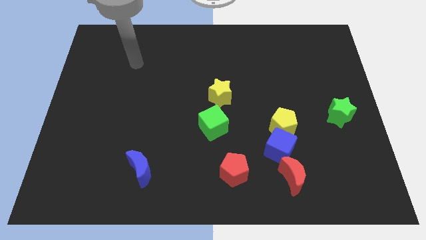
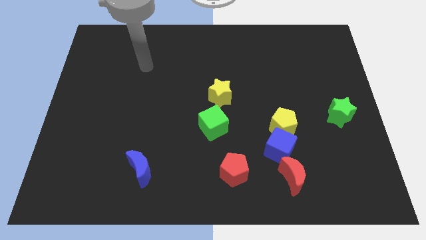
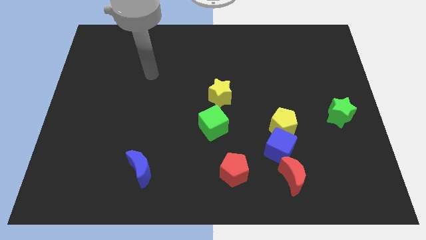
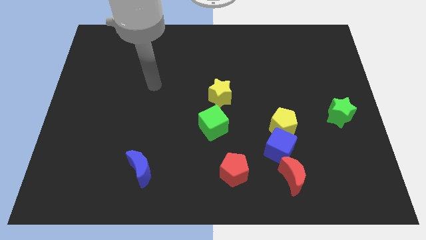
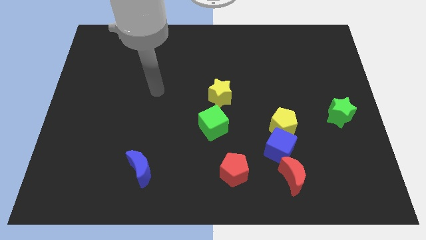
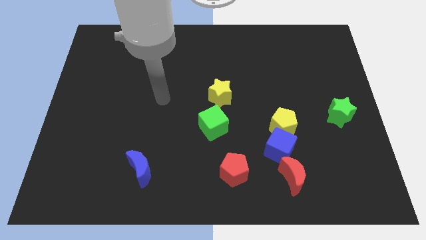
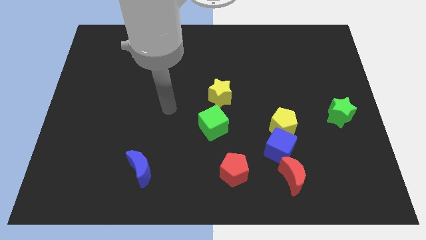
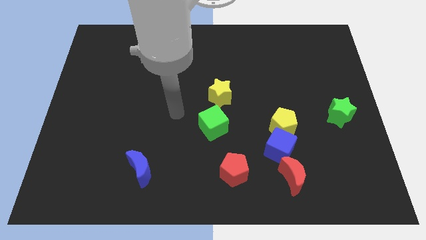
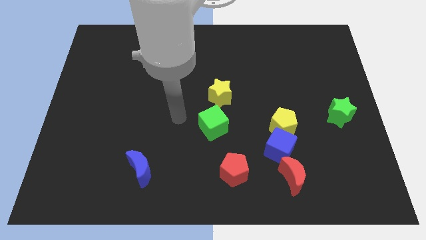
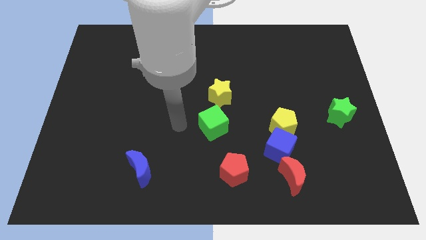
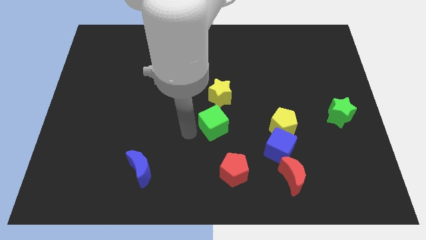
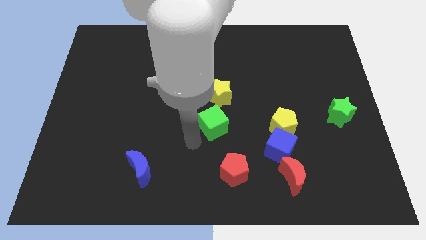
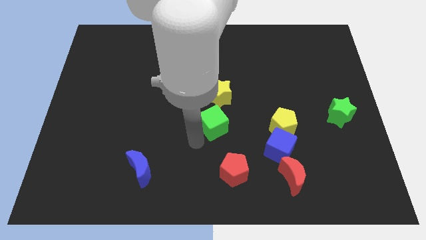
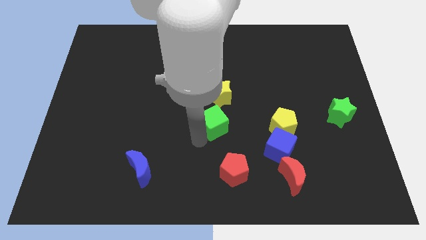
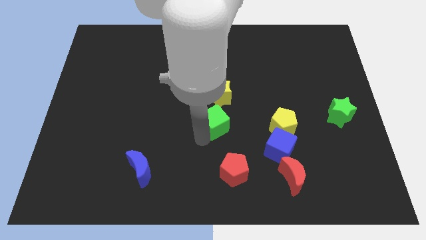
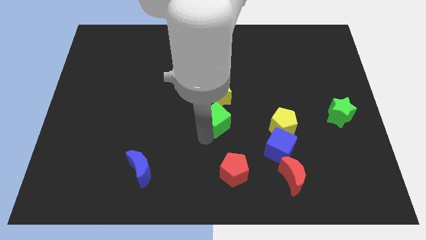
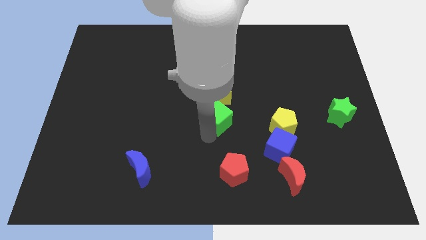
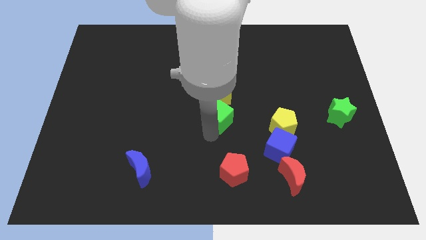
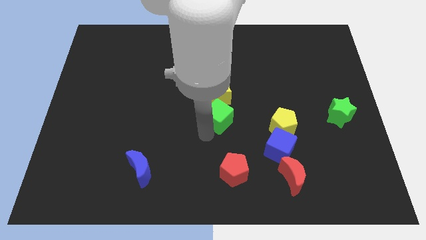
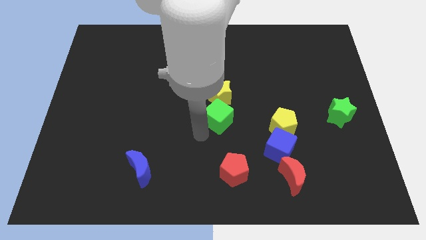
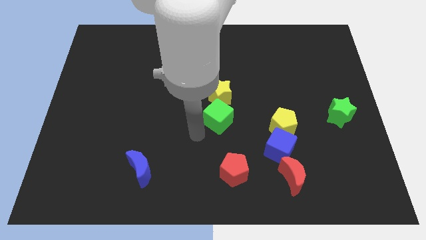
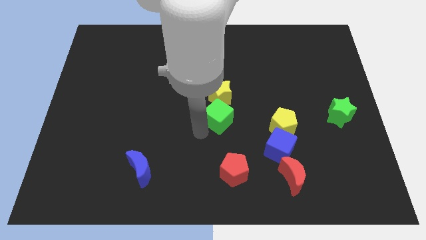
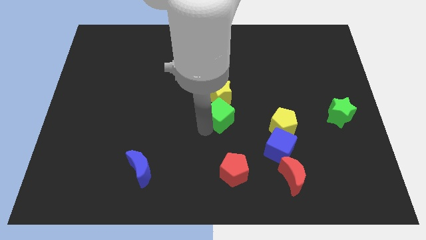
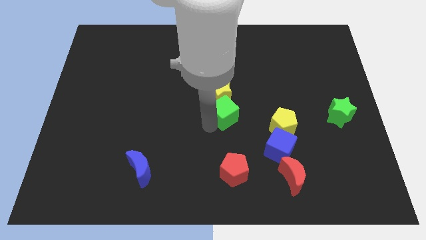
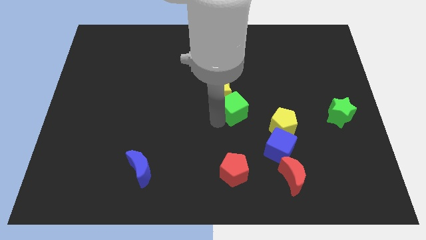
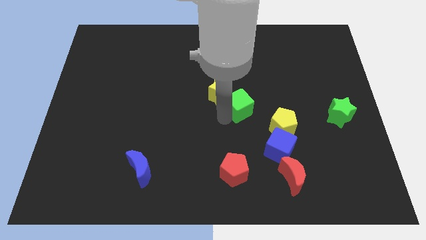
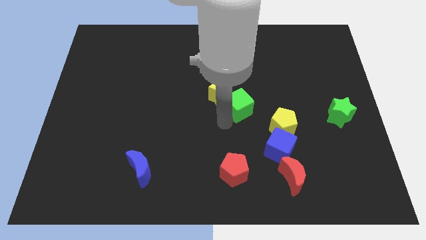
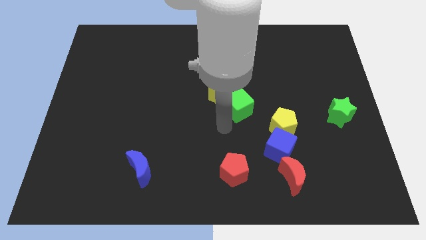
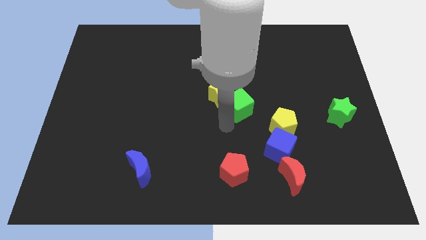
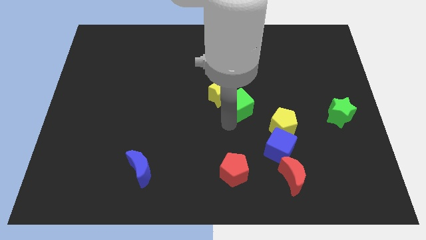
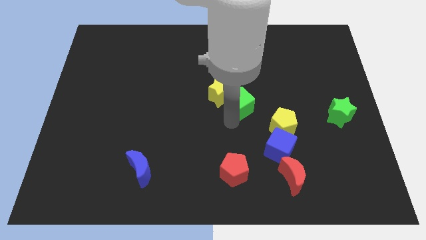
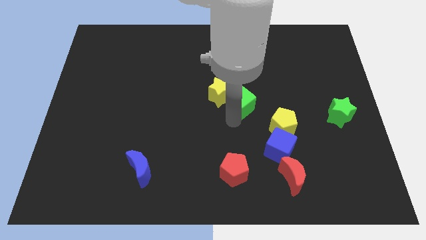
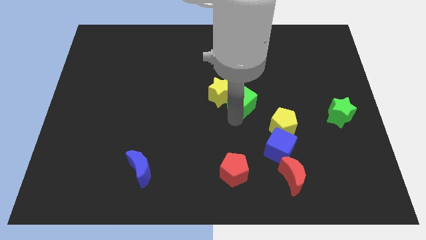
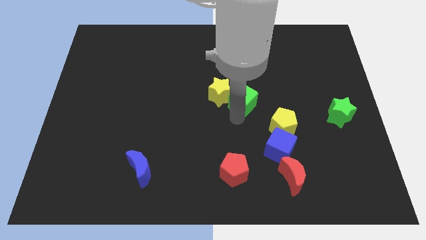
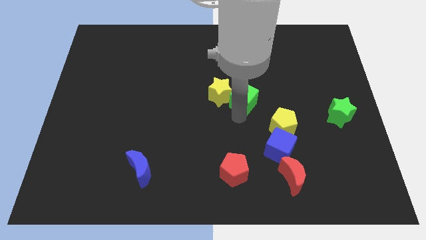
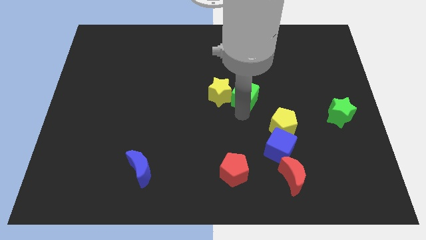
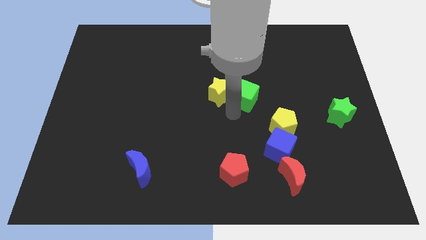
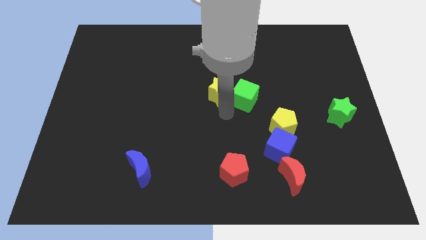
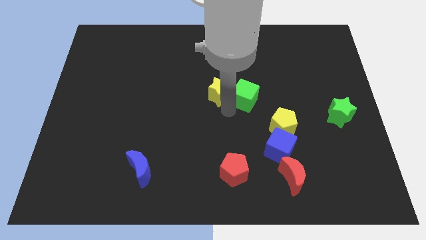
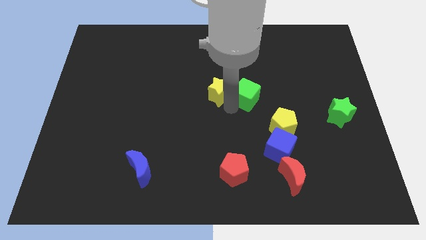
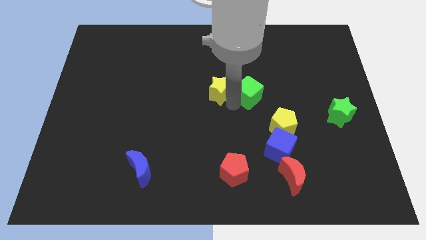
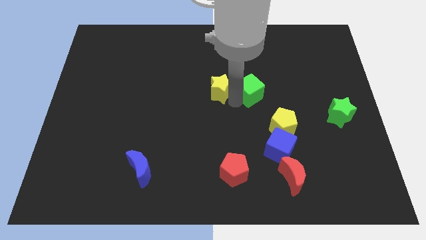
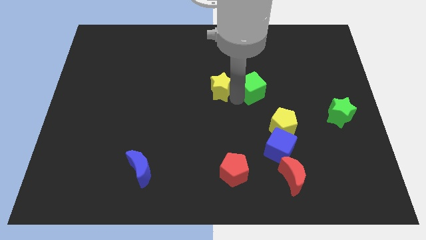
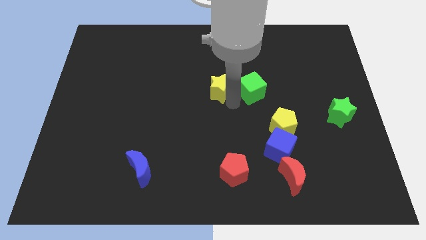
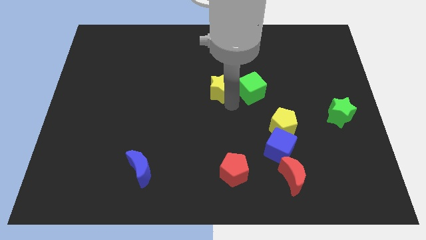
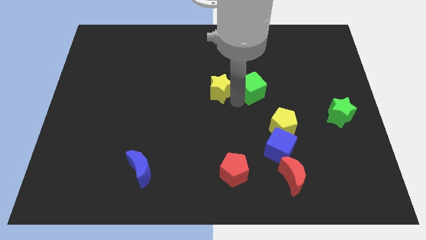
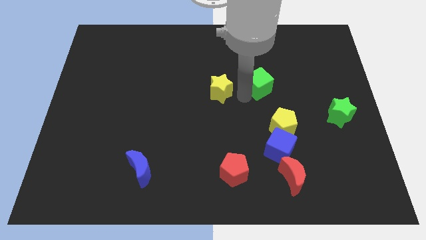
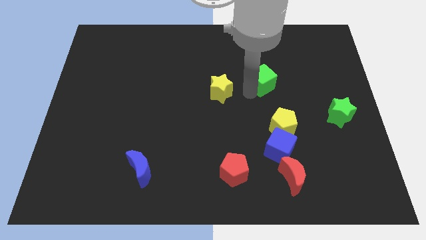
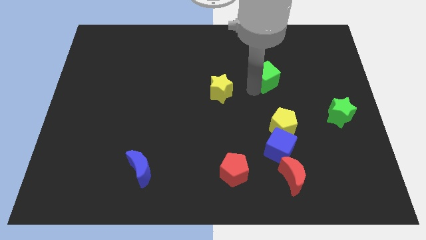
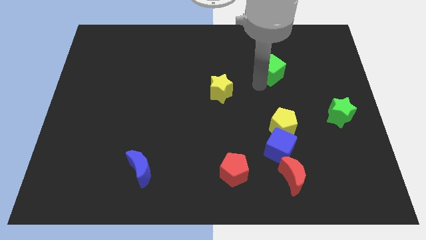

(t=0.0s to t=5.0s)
move the green cube upwards and then to the right

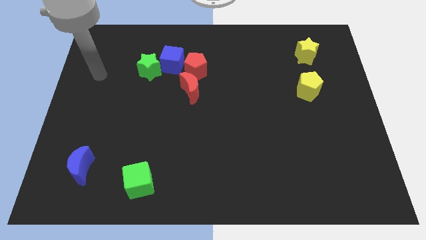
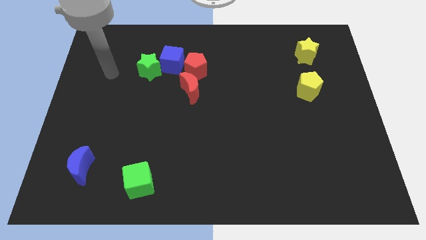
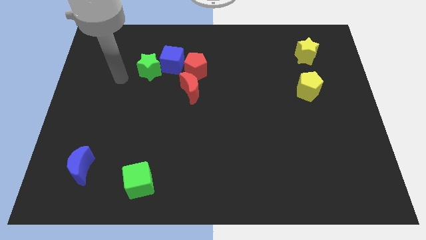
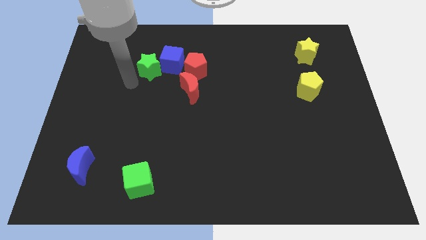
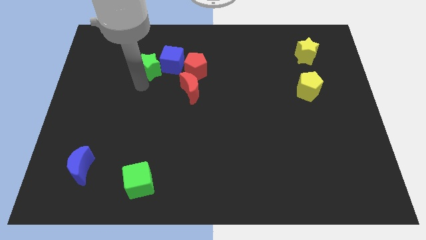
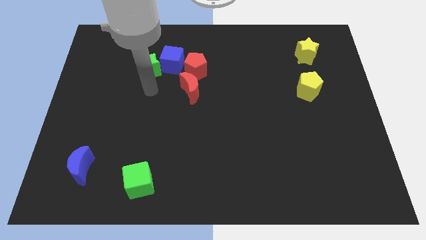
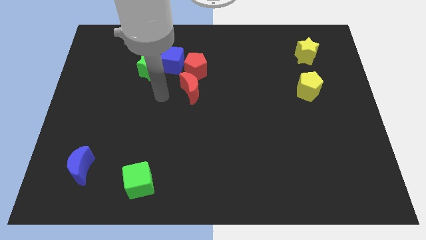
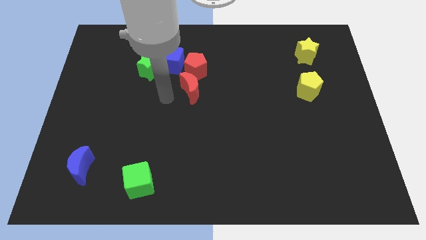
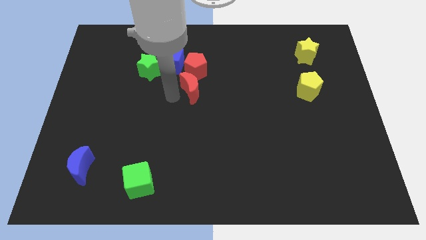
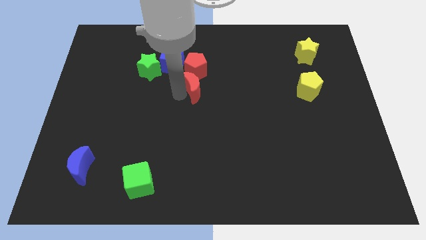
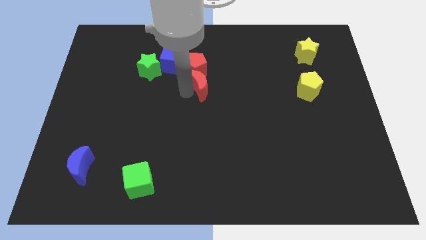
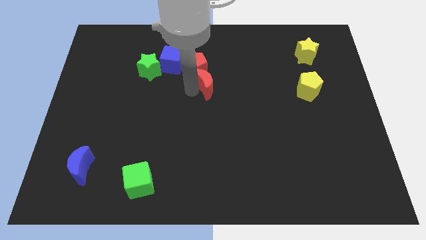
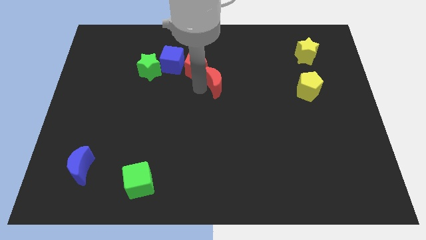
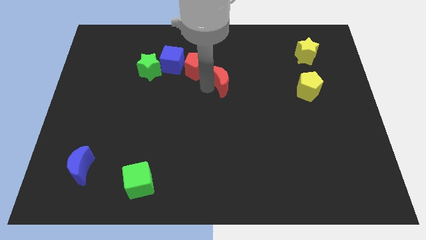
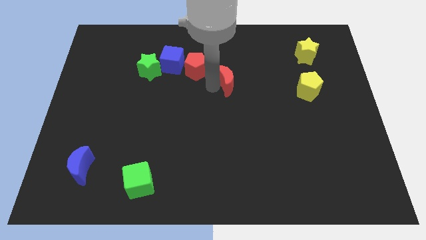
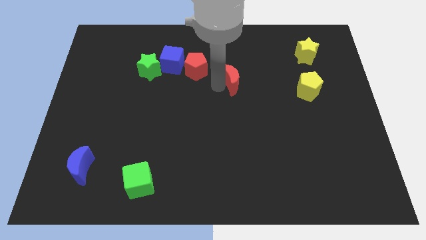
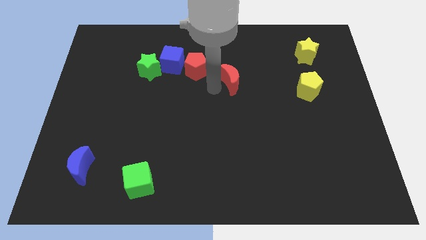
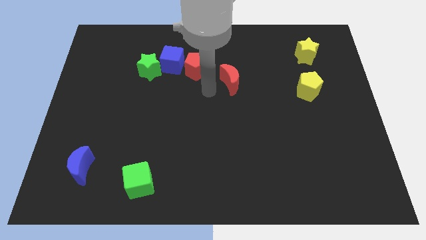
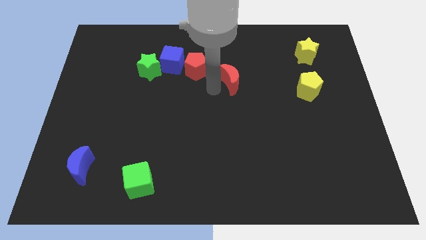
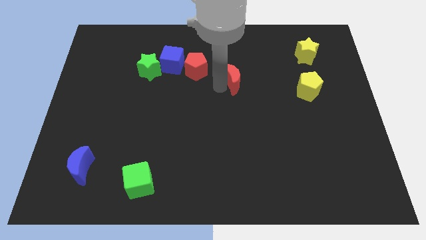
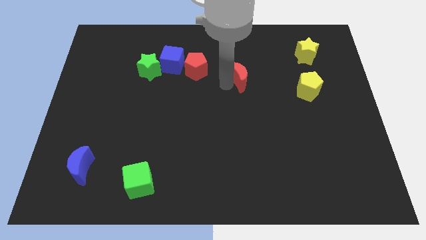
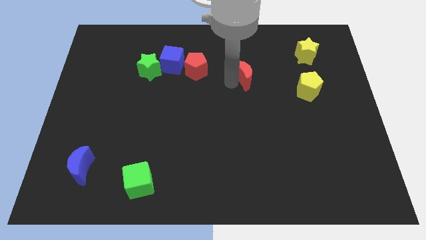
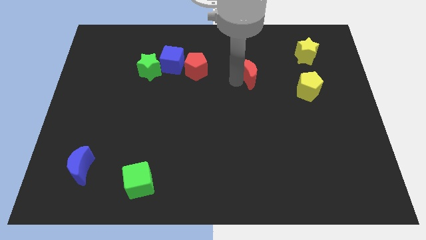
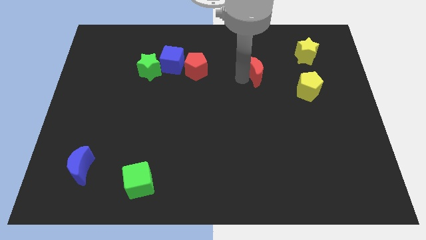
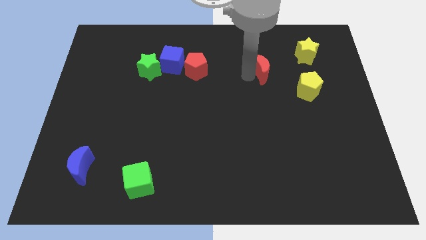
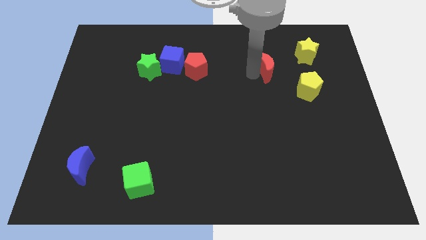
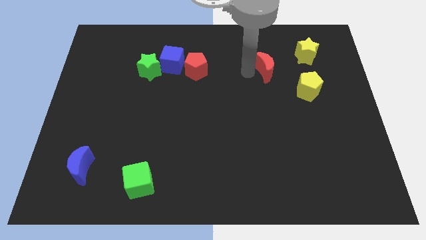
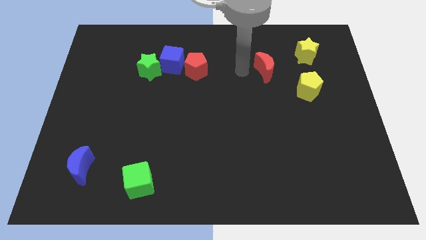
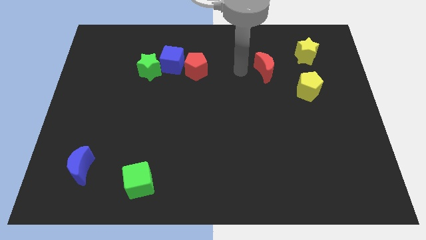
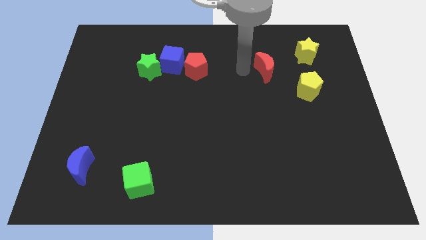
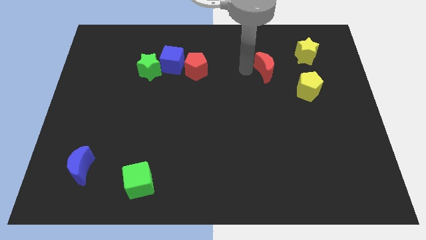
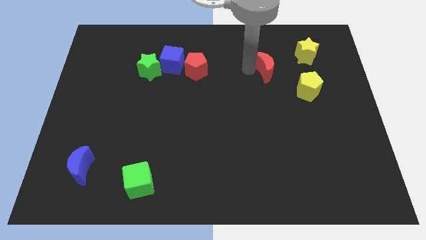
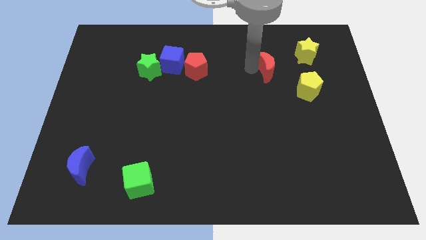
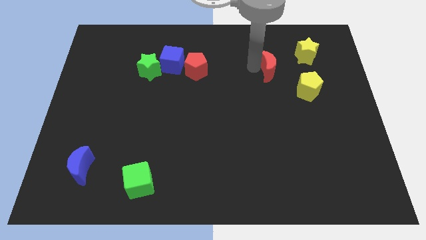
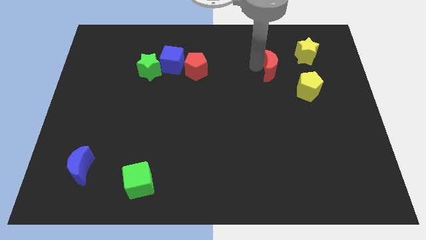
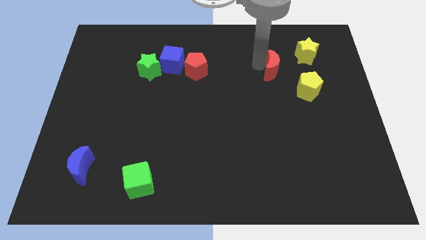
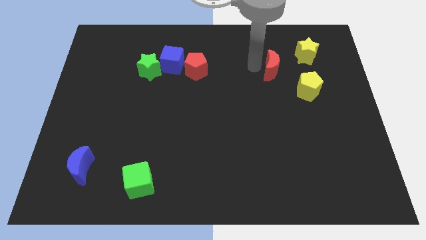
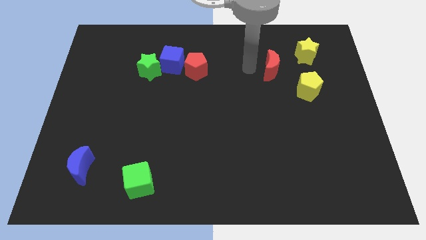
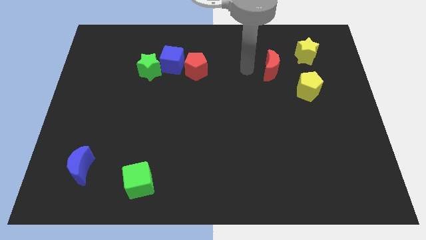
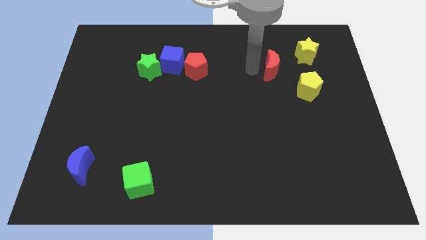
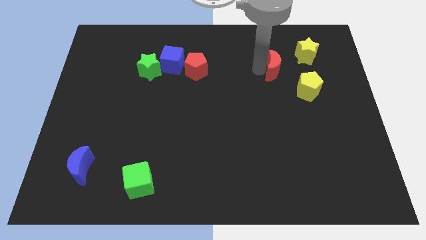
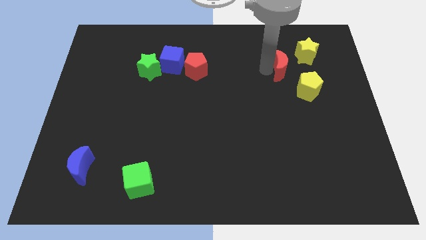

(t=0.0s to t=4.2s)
move the red moon right
